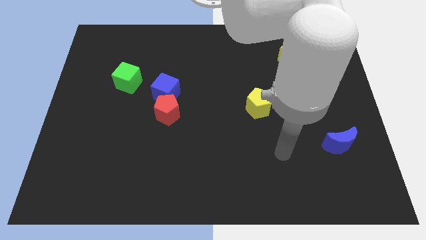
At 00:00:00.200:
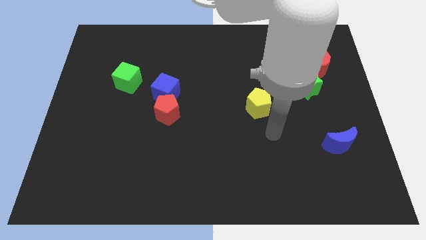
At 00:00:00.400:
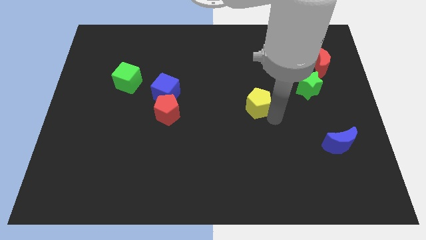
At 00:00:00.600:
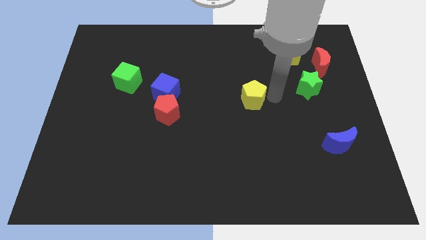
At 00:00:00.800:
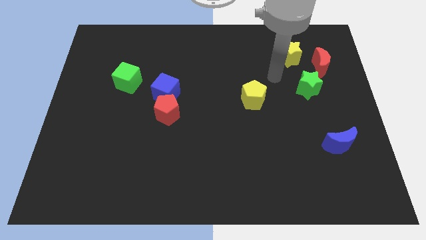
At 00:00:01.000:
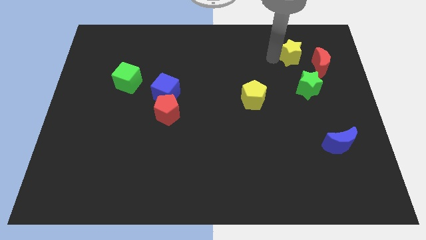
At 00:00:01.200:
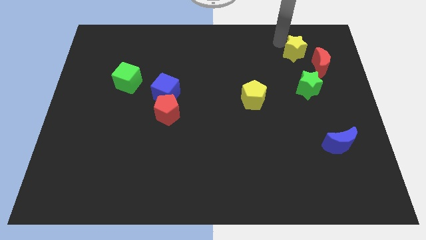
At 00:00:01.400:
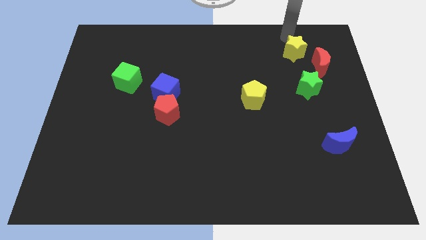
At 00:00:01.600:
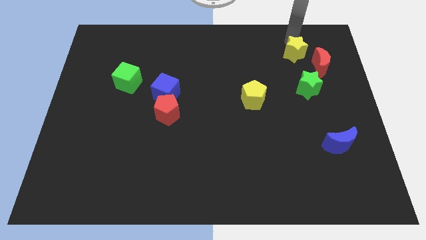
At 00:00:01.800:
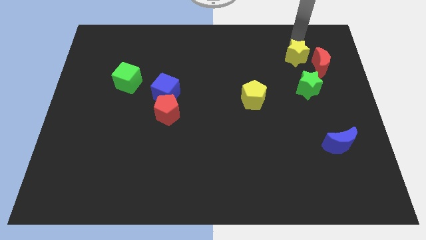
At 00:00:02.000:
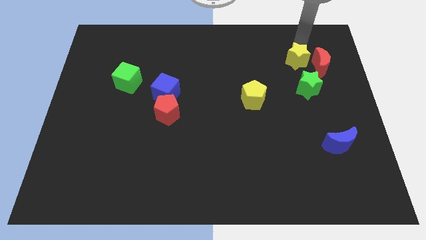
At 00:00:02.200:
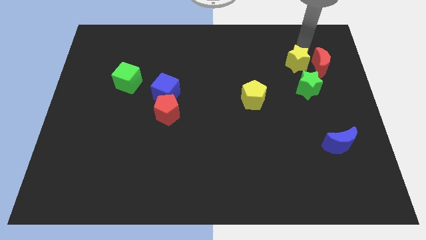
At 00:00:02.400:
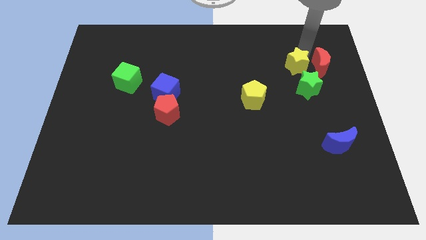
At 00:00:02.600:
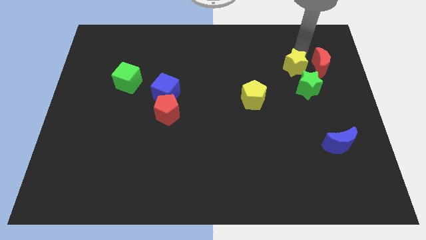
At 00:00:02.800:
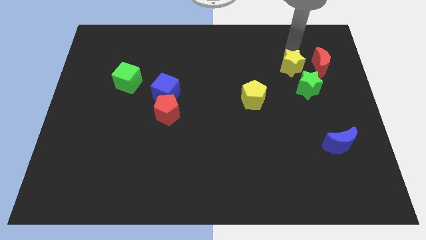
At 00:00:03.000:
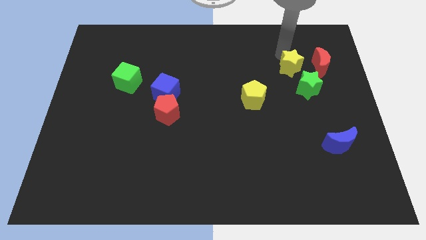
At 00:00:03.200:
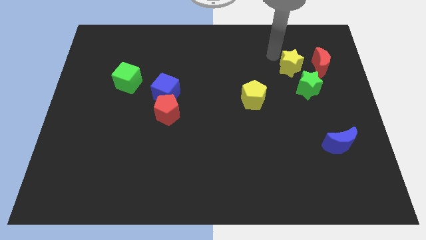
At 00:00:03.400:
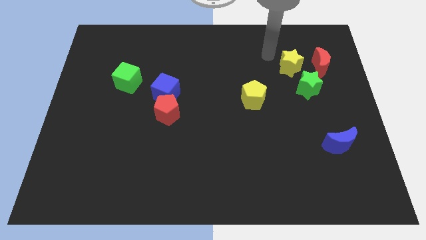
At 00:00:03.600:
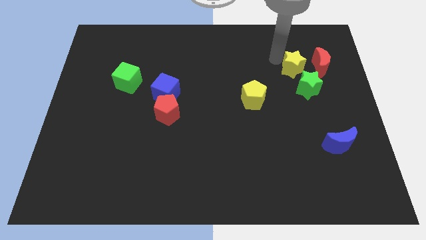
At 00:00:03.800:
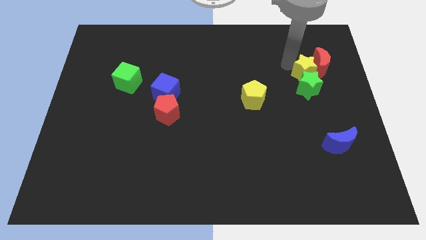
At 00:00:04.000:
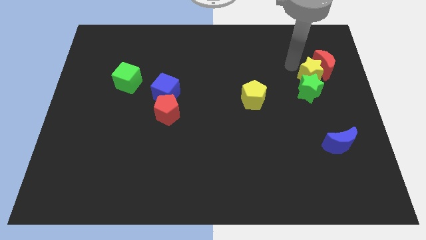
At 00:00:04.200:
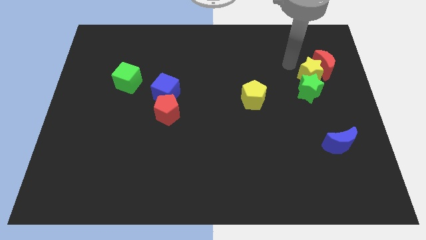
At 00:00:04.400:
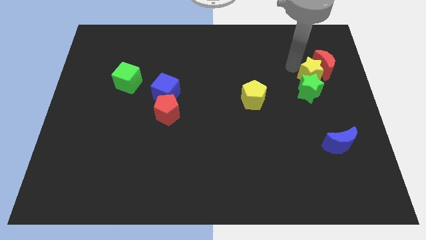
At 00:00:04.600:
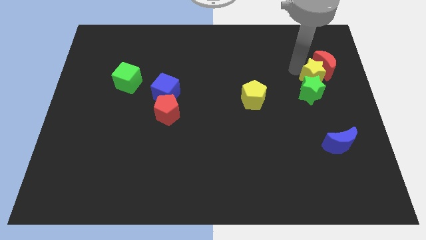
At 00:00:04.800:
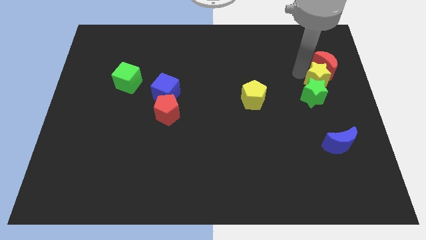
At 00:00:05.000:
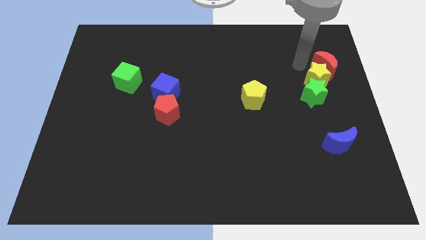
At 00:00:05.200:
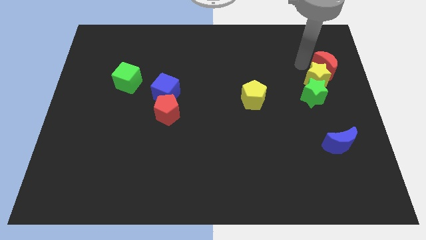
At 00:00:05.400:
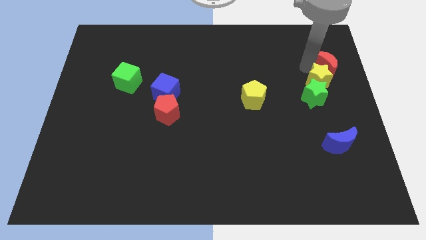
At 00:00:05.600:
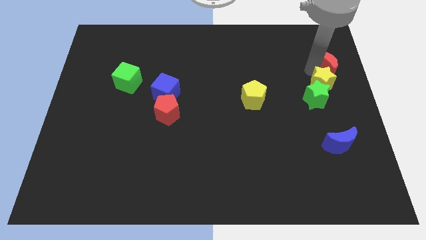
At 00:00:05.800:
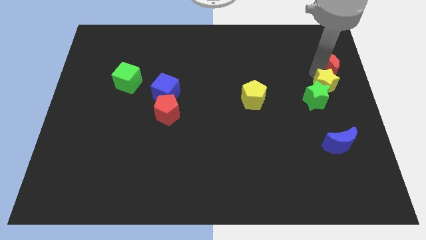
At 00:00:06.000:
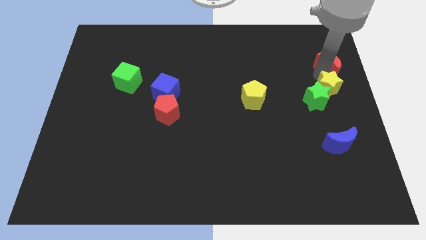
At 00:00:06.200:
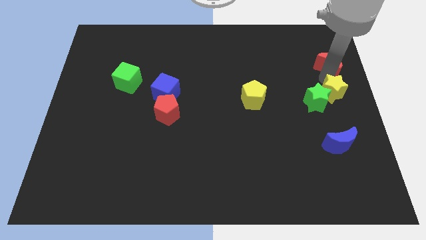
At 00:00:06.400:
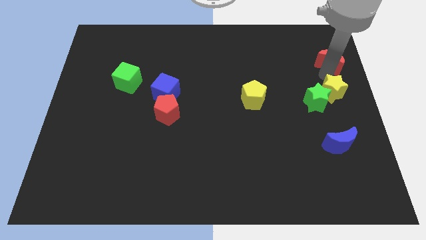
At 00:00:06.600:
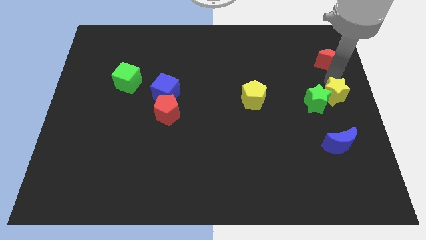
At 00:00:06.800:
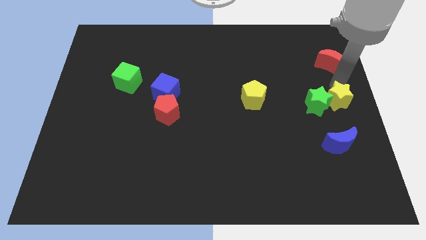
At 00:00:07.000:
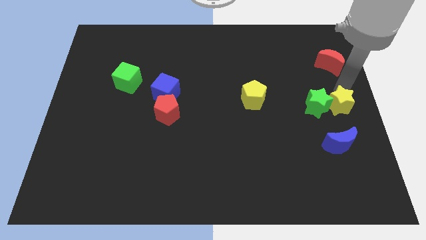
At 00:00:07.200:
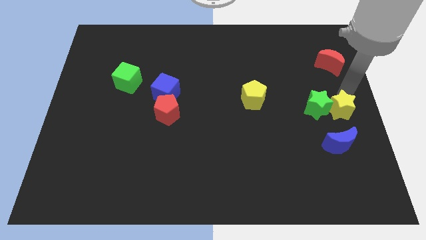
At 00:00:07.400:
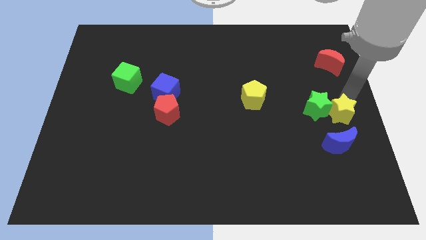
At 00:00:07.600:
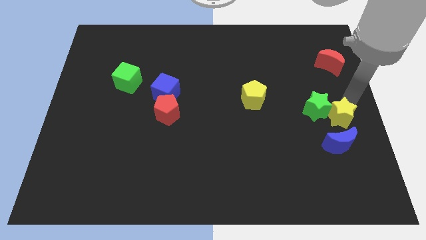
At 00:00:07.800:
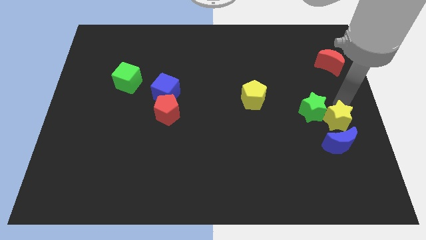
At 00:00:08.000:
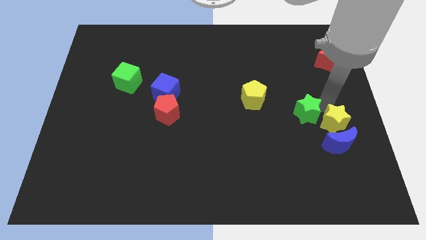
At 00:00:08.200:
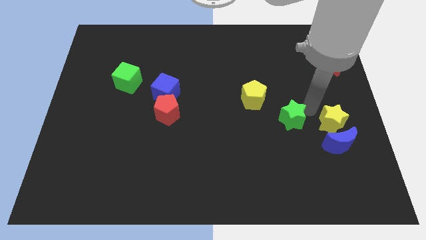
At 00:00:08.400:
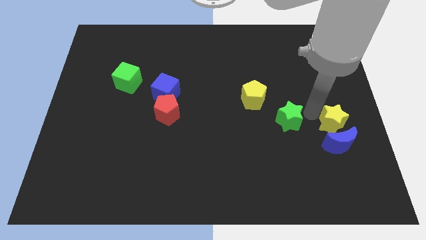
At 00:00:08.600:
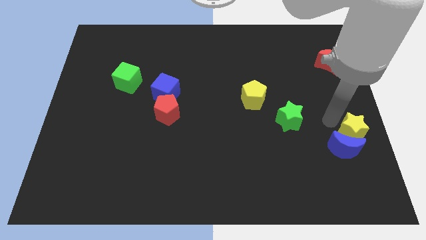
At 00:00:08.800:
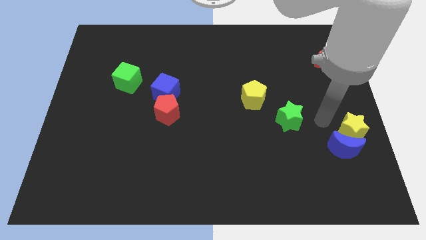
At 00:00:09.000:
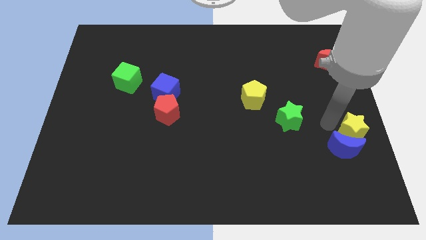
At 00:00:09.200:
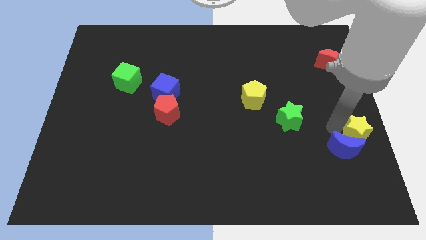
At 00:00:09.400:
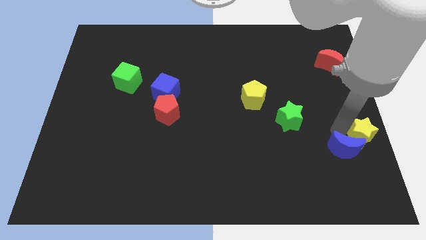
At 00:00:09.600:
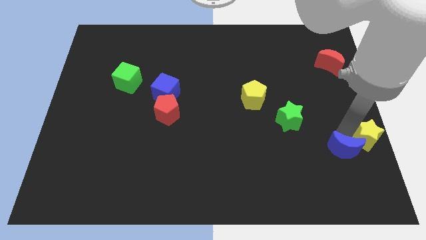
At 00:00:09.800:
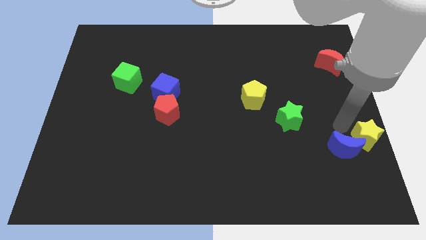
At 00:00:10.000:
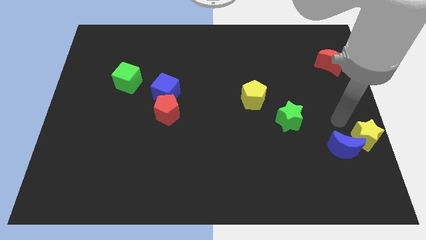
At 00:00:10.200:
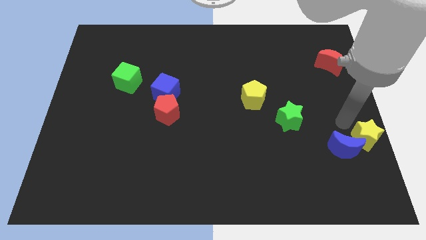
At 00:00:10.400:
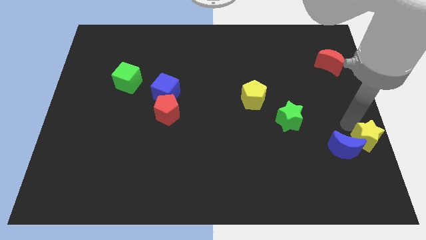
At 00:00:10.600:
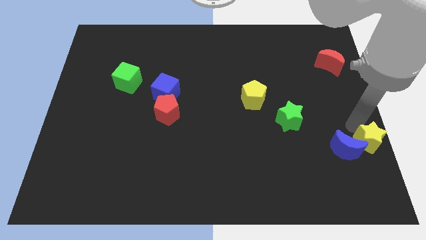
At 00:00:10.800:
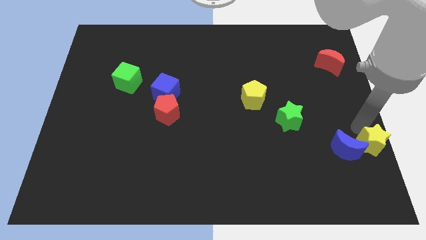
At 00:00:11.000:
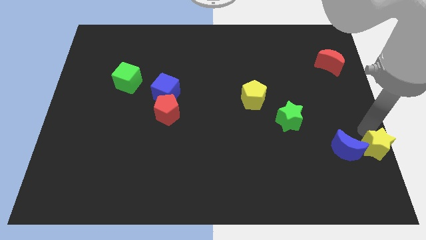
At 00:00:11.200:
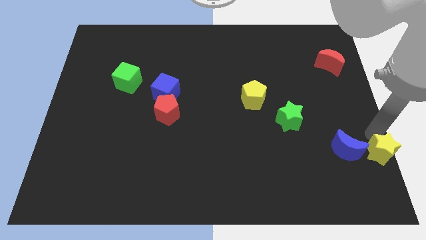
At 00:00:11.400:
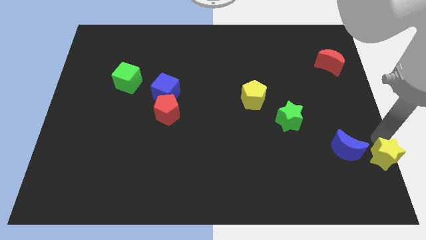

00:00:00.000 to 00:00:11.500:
move the yellow star to the bottom right

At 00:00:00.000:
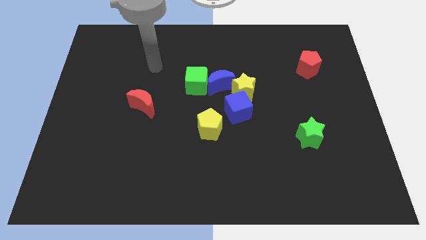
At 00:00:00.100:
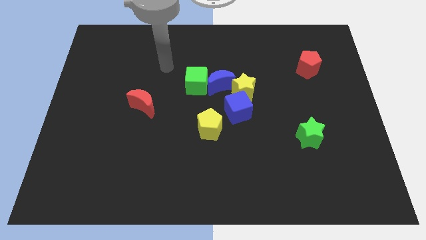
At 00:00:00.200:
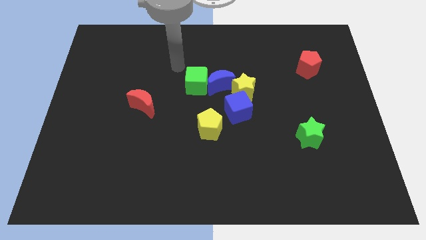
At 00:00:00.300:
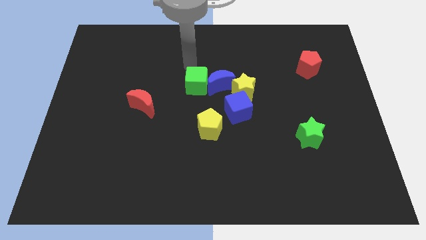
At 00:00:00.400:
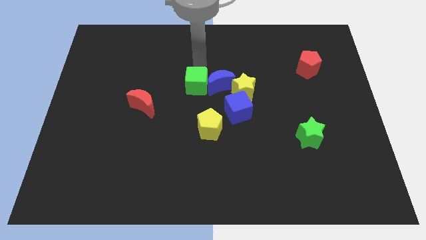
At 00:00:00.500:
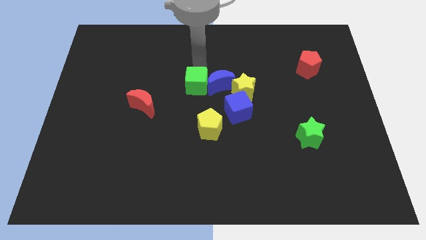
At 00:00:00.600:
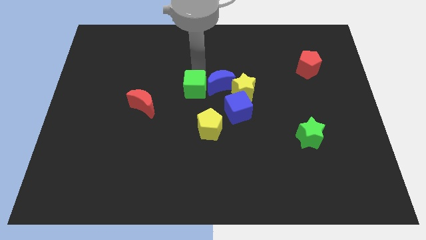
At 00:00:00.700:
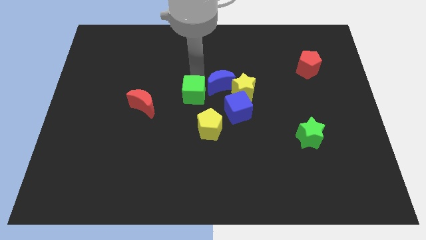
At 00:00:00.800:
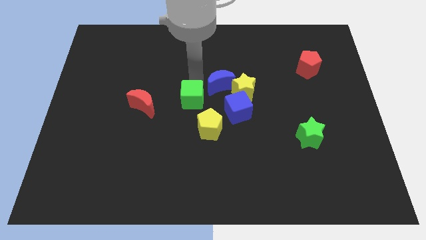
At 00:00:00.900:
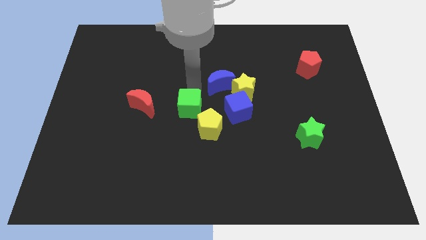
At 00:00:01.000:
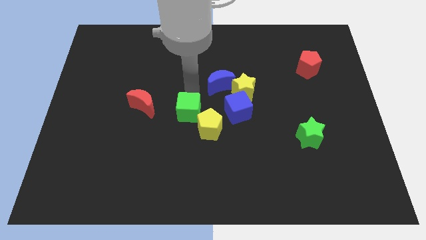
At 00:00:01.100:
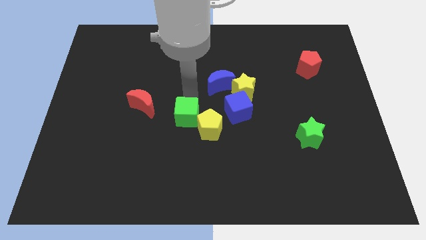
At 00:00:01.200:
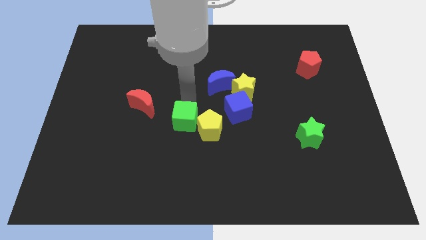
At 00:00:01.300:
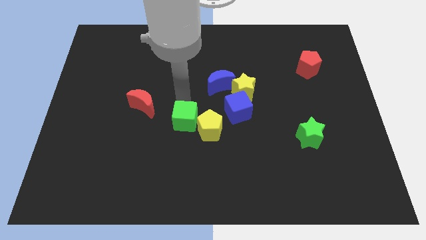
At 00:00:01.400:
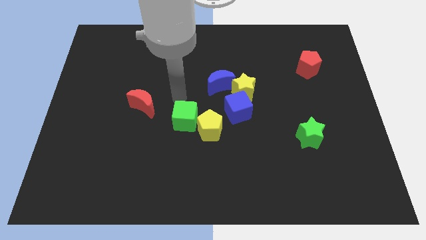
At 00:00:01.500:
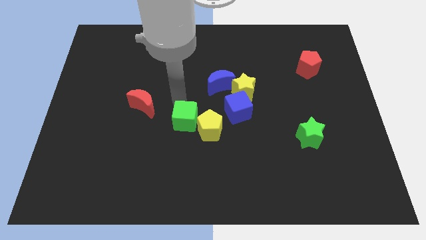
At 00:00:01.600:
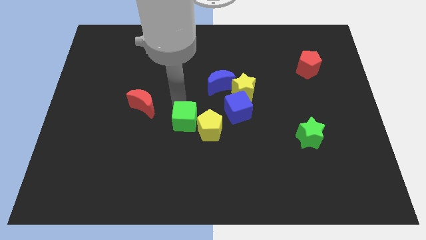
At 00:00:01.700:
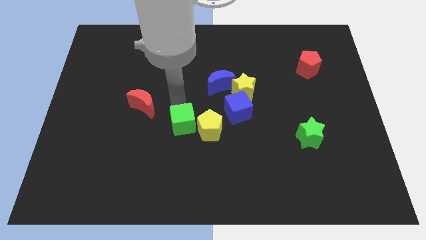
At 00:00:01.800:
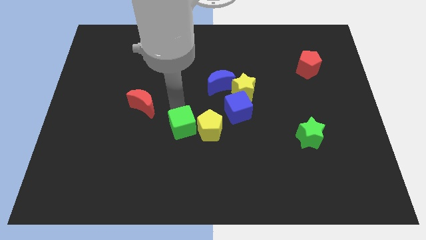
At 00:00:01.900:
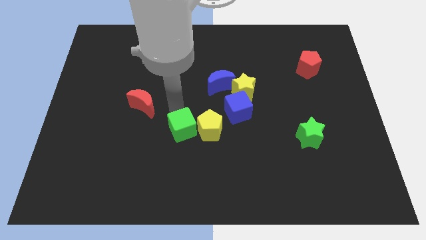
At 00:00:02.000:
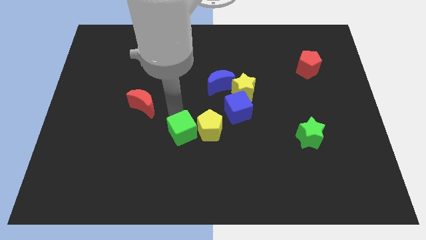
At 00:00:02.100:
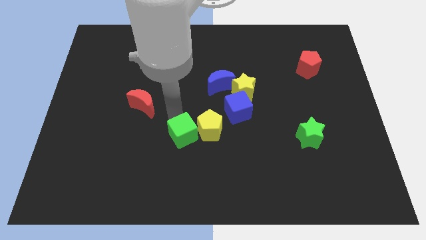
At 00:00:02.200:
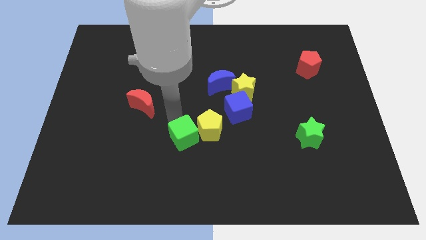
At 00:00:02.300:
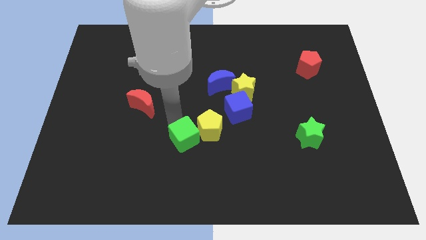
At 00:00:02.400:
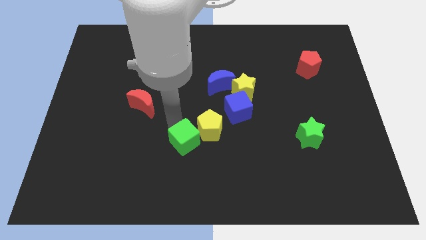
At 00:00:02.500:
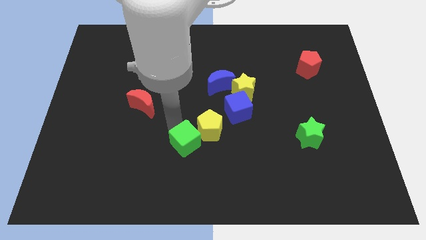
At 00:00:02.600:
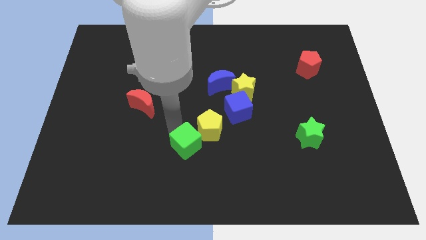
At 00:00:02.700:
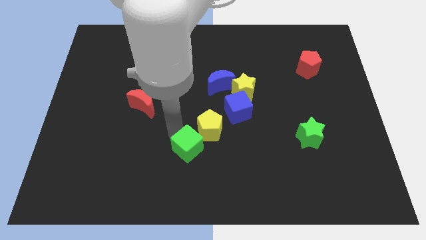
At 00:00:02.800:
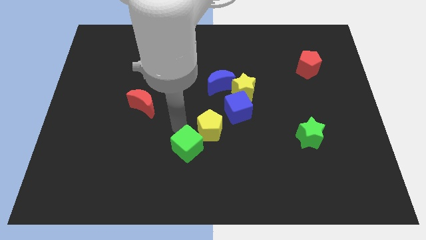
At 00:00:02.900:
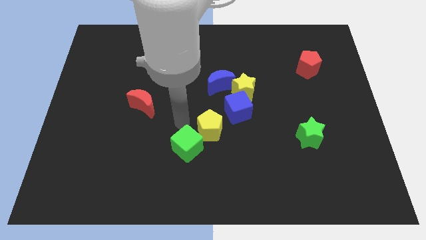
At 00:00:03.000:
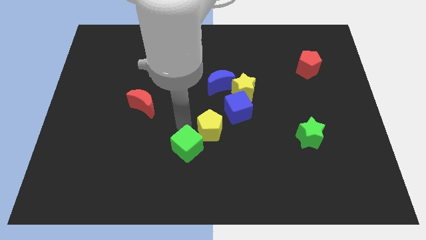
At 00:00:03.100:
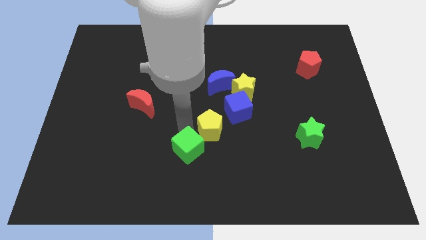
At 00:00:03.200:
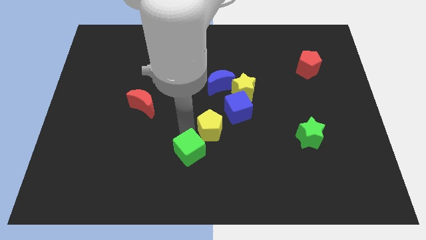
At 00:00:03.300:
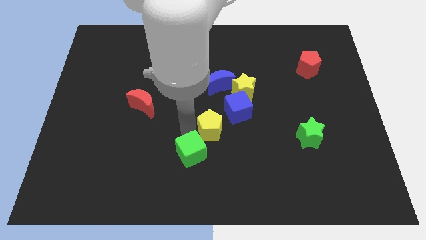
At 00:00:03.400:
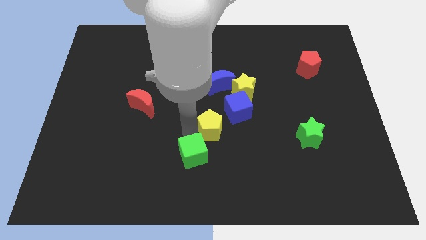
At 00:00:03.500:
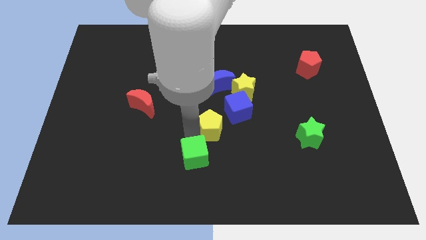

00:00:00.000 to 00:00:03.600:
move the green cube to the bottom side
